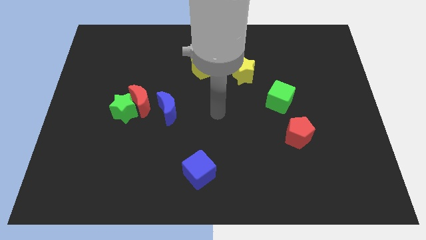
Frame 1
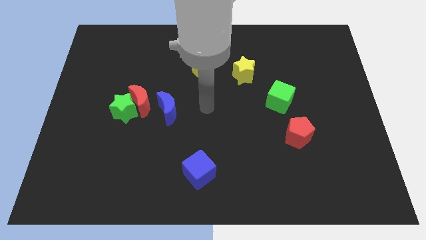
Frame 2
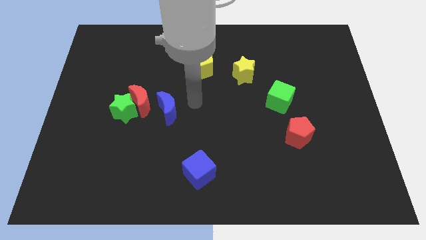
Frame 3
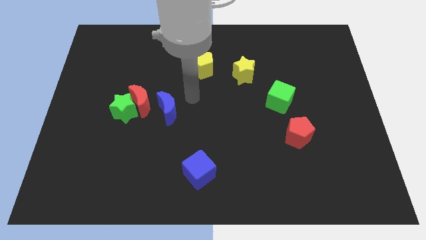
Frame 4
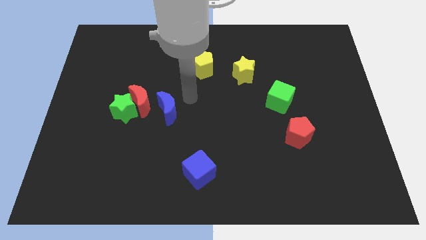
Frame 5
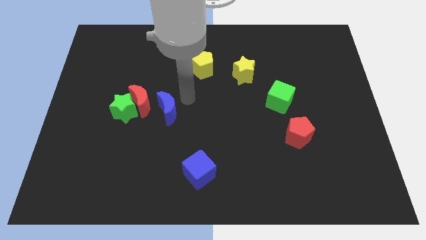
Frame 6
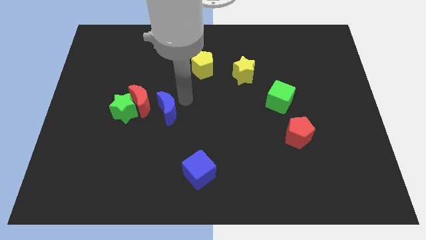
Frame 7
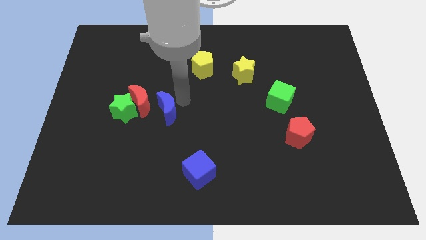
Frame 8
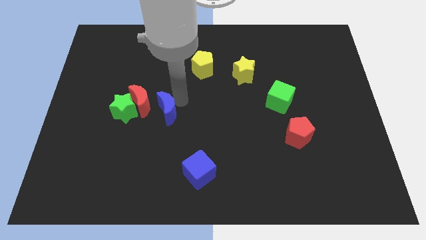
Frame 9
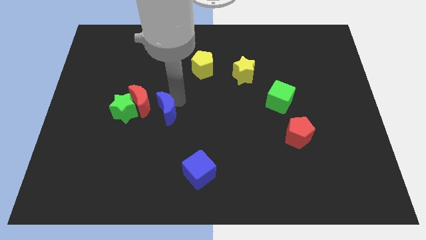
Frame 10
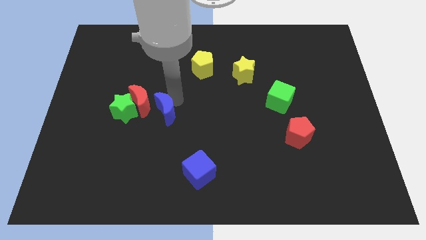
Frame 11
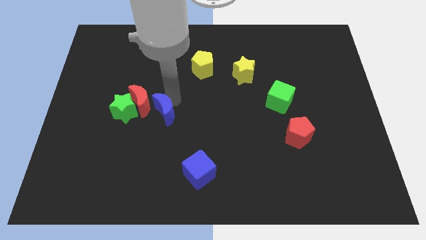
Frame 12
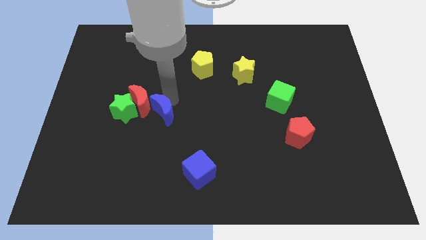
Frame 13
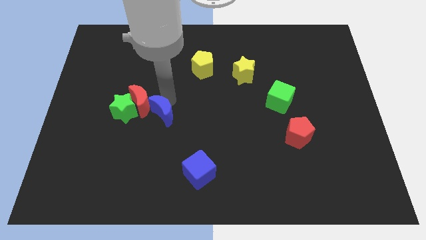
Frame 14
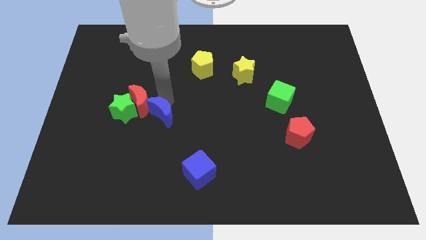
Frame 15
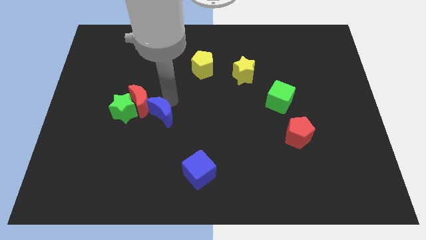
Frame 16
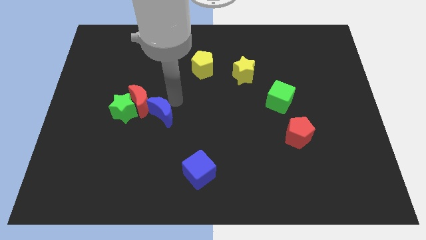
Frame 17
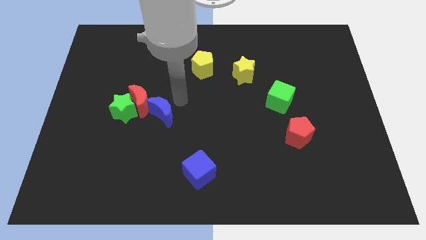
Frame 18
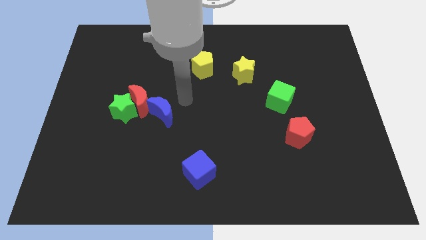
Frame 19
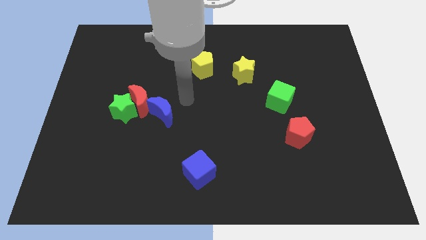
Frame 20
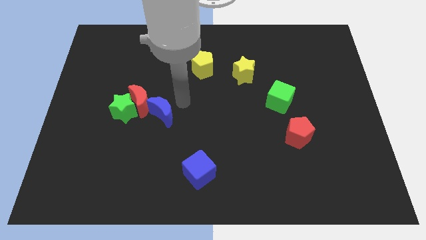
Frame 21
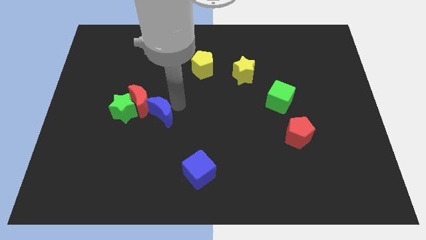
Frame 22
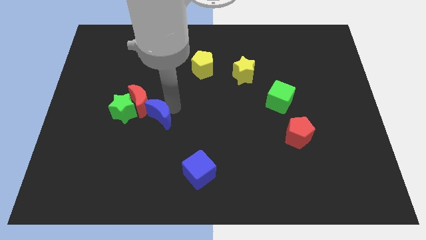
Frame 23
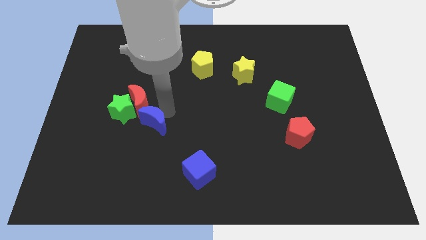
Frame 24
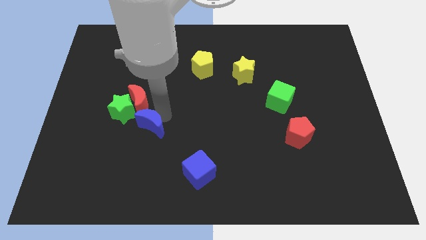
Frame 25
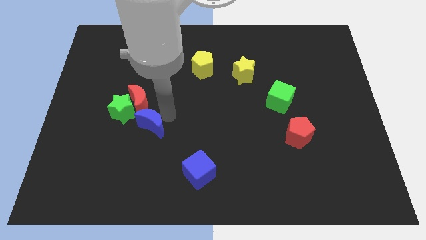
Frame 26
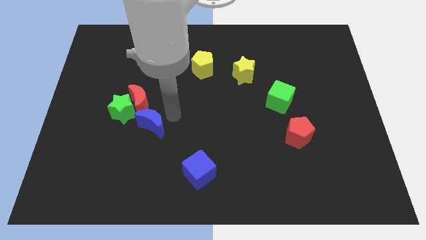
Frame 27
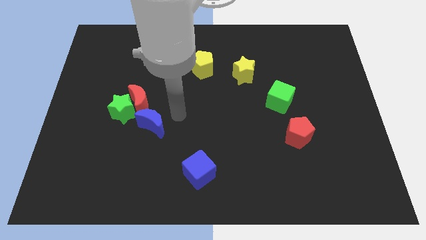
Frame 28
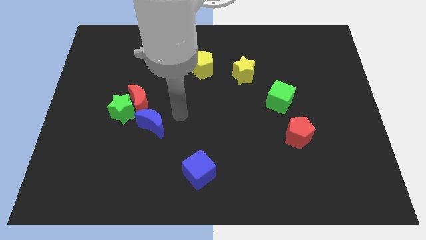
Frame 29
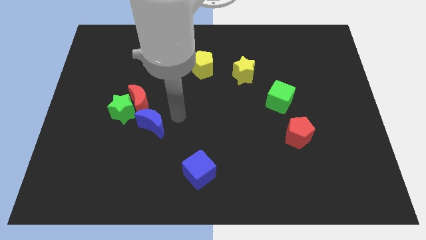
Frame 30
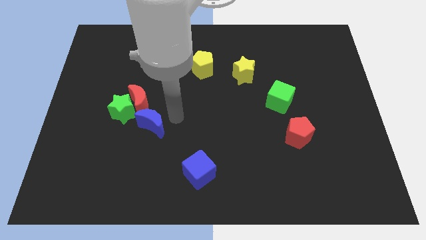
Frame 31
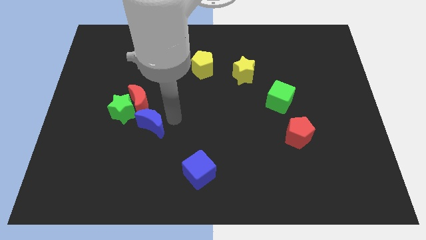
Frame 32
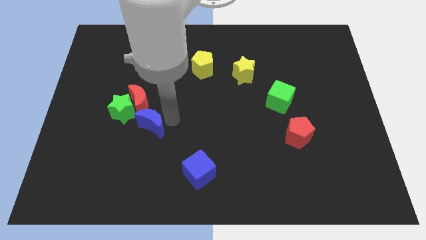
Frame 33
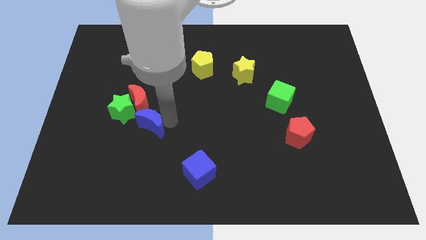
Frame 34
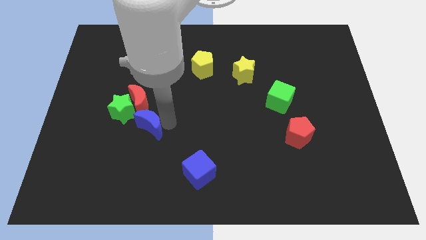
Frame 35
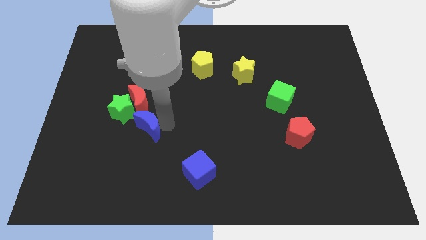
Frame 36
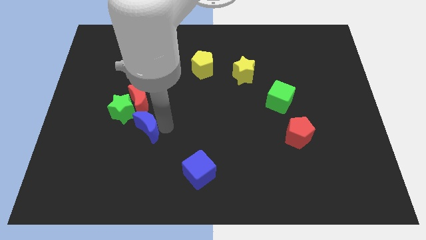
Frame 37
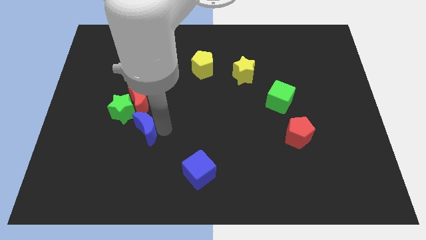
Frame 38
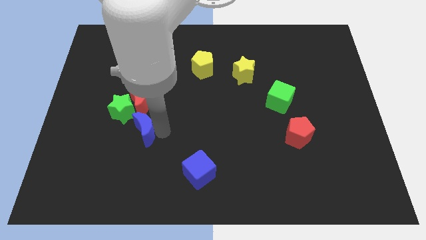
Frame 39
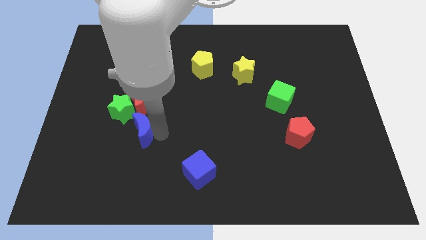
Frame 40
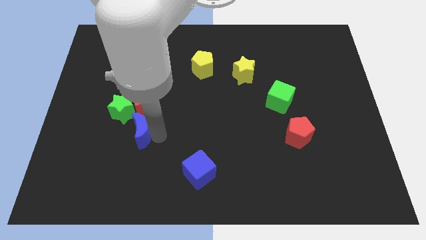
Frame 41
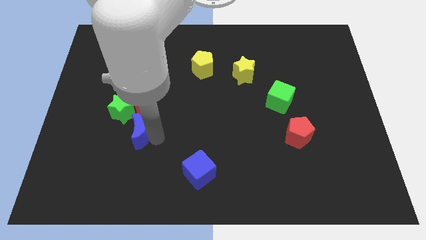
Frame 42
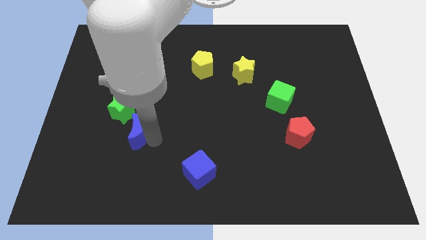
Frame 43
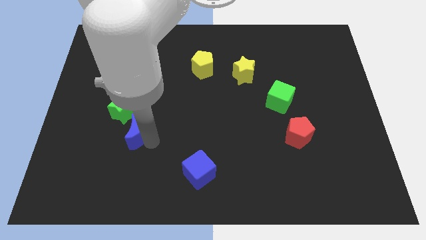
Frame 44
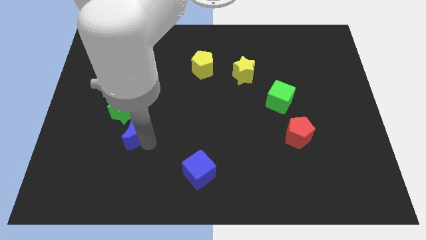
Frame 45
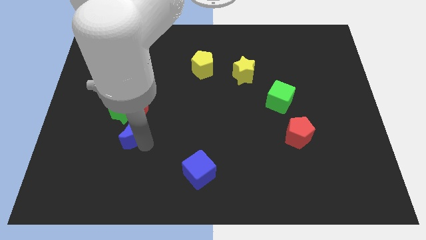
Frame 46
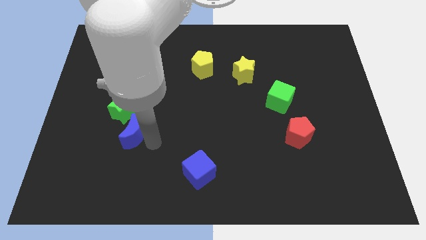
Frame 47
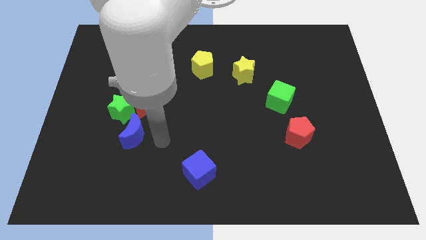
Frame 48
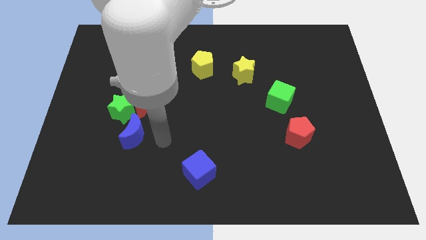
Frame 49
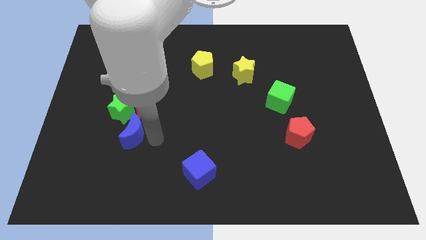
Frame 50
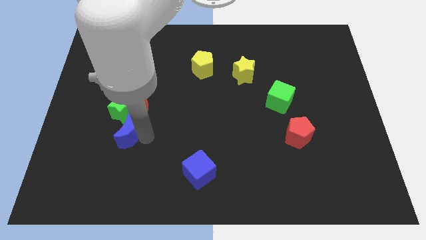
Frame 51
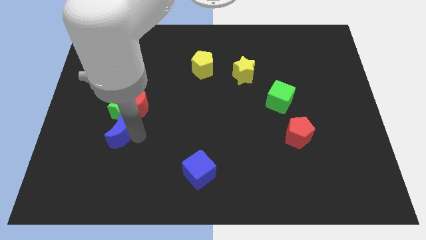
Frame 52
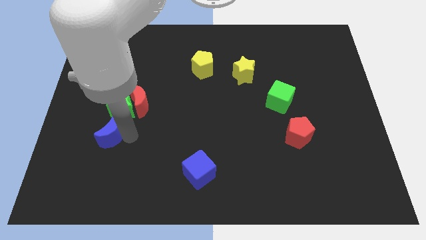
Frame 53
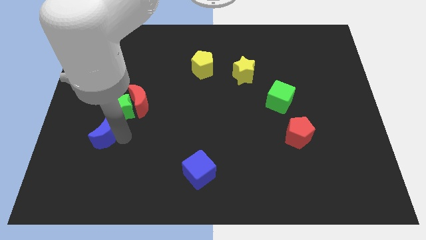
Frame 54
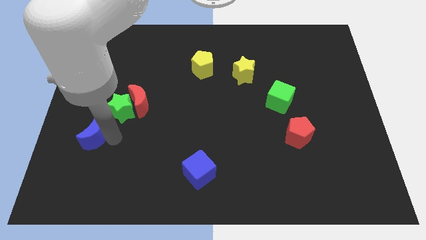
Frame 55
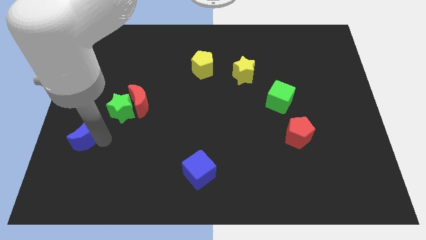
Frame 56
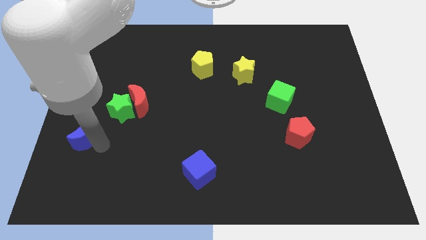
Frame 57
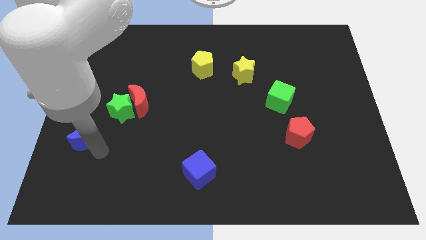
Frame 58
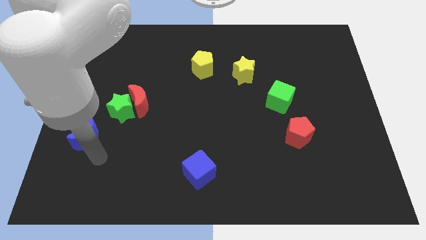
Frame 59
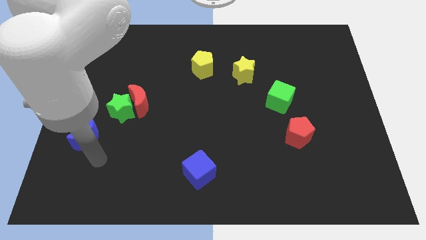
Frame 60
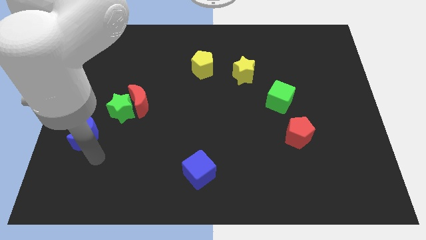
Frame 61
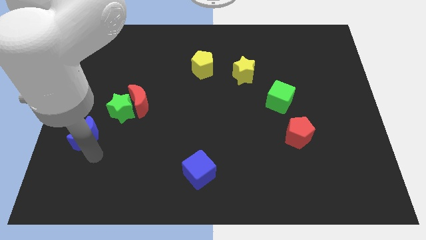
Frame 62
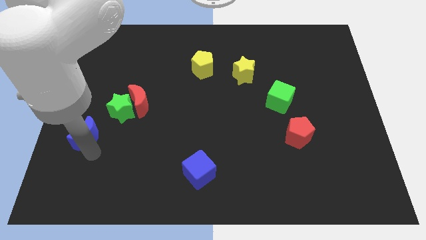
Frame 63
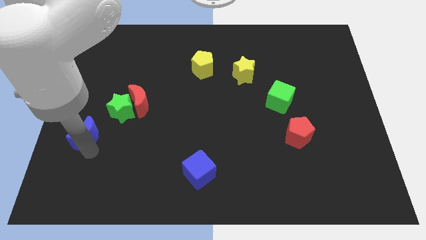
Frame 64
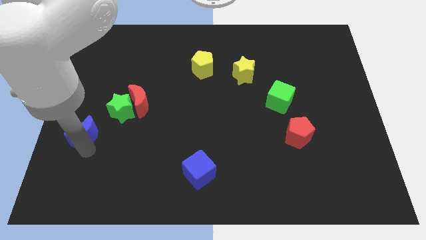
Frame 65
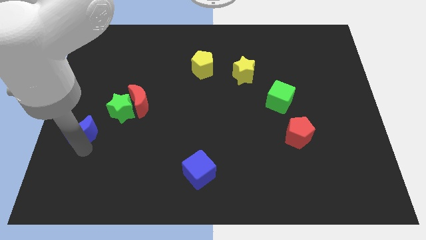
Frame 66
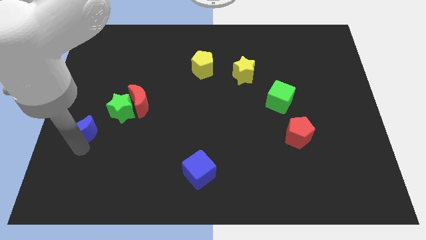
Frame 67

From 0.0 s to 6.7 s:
slide the blue moon to the center left
